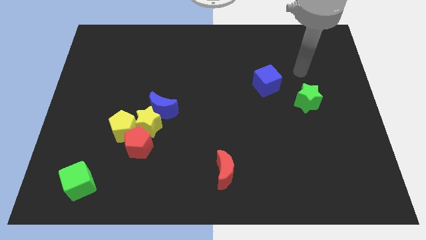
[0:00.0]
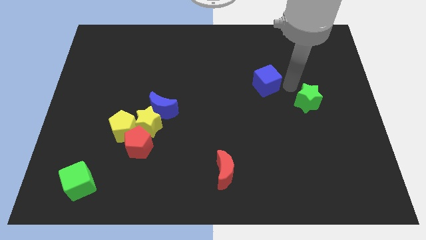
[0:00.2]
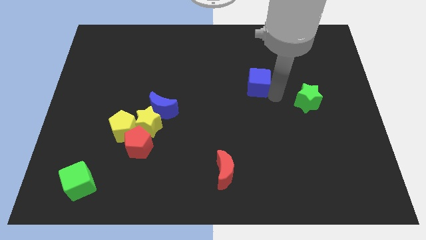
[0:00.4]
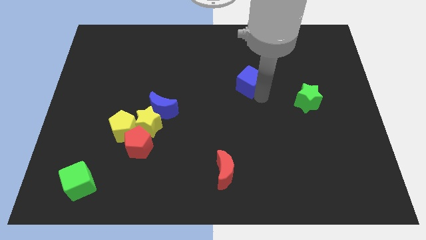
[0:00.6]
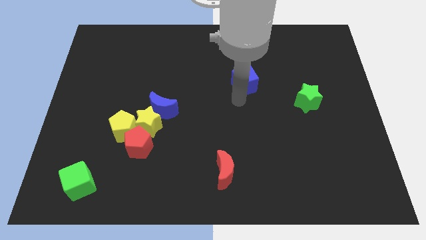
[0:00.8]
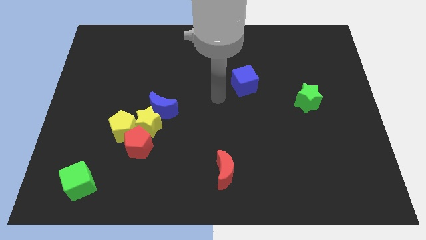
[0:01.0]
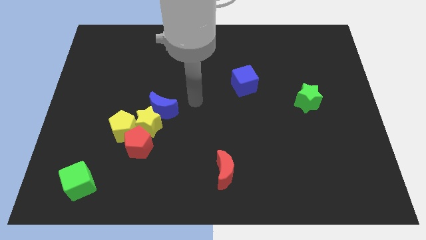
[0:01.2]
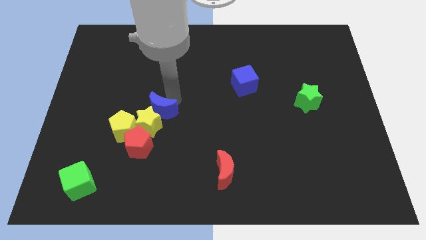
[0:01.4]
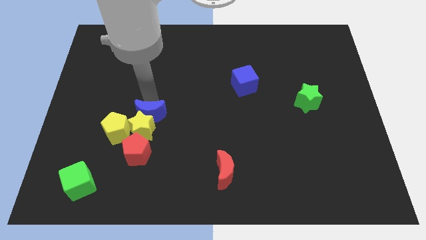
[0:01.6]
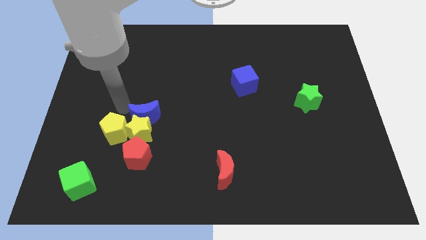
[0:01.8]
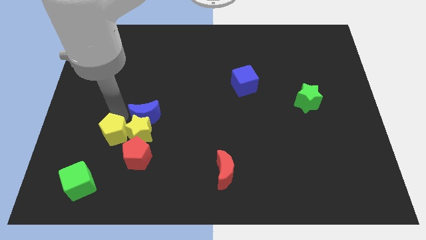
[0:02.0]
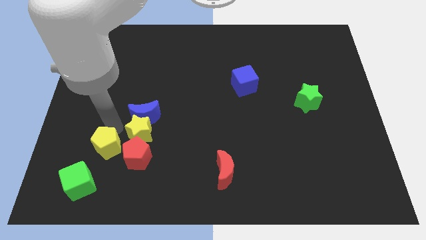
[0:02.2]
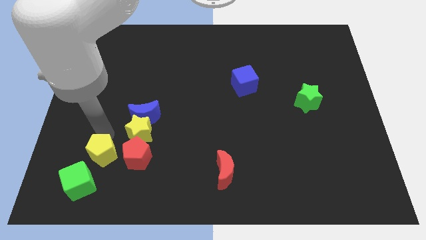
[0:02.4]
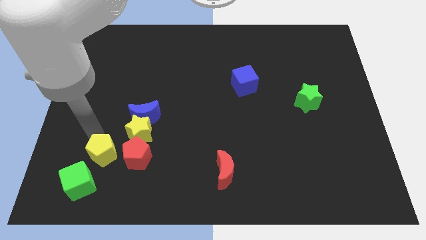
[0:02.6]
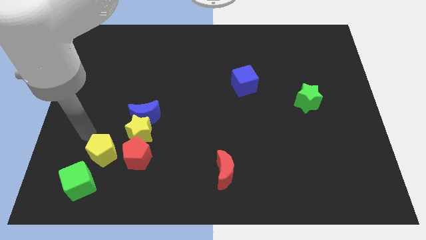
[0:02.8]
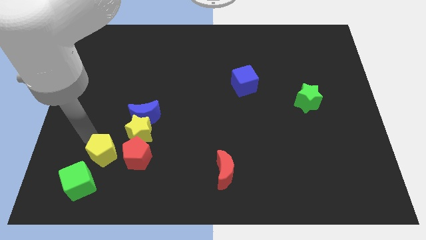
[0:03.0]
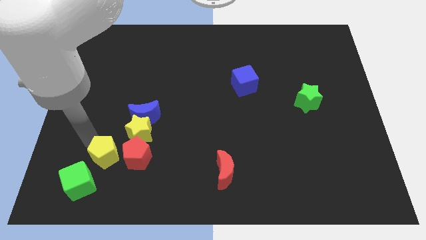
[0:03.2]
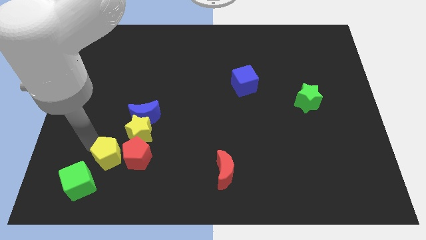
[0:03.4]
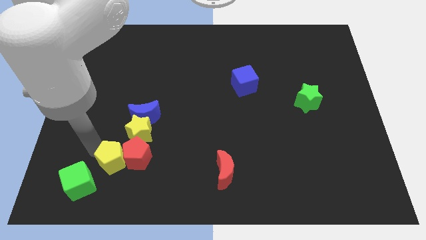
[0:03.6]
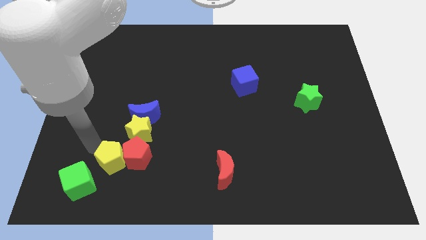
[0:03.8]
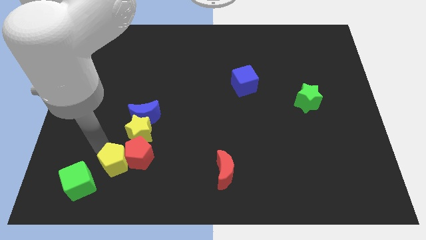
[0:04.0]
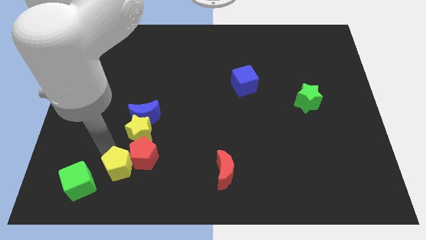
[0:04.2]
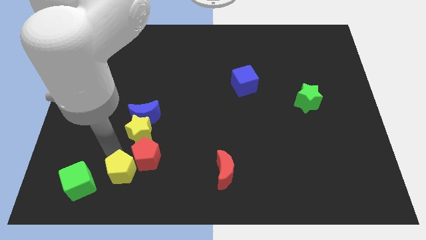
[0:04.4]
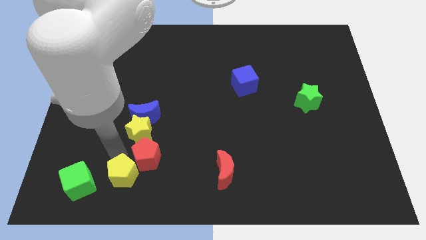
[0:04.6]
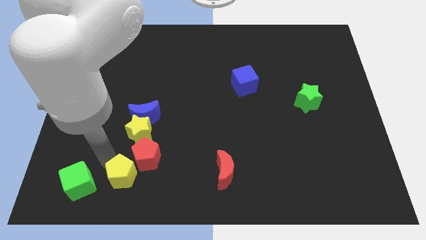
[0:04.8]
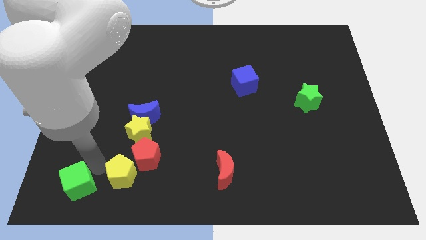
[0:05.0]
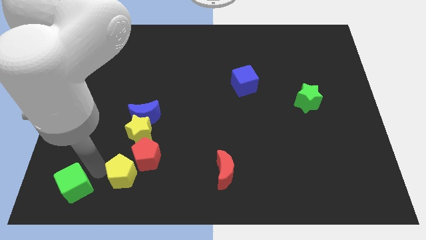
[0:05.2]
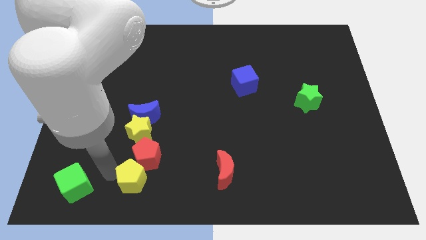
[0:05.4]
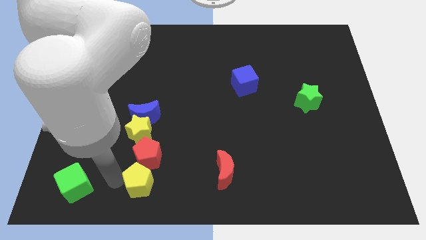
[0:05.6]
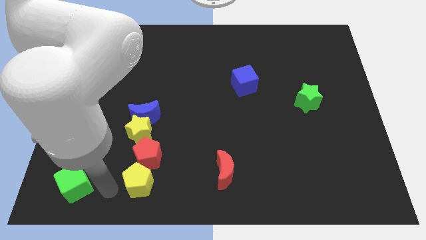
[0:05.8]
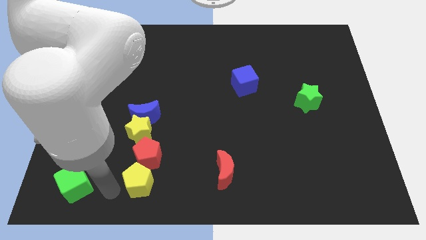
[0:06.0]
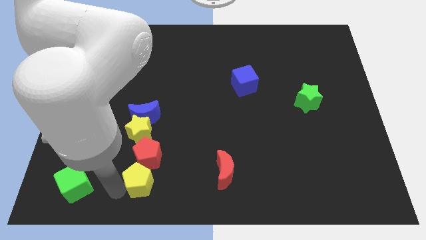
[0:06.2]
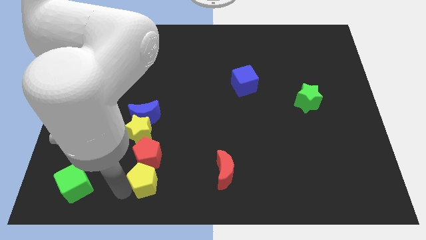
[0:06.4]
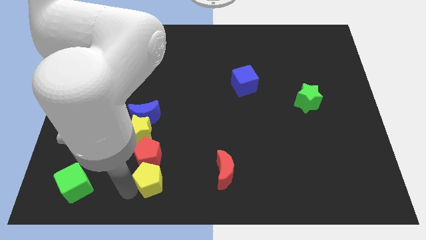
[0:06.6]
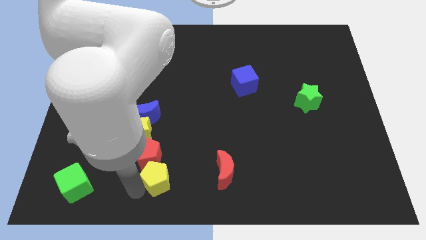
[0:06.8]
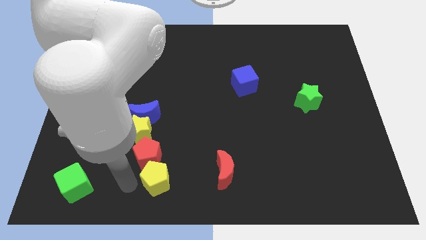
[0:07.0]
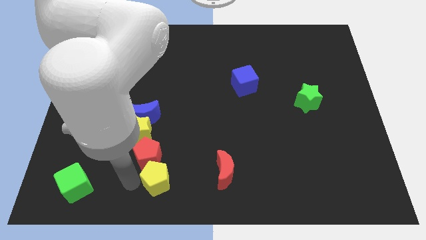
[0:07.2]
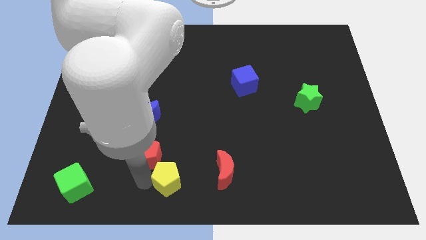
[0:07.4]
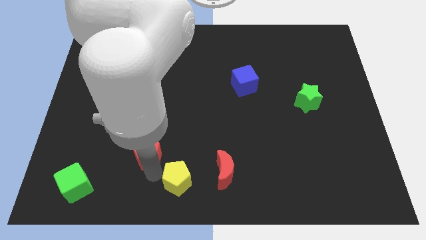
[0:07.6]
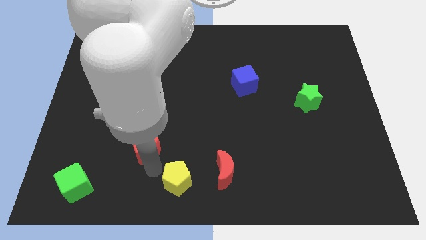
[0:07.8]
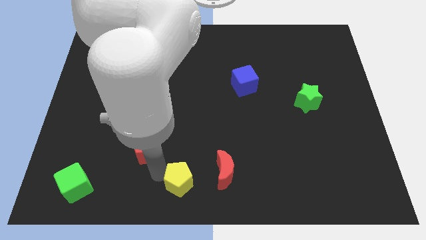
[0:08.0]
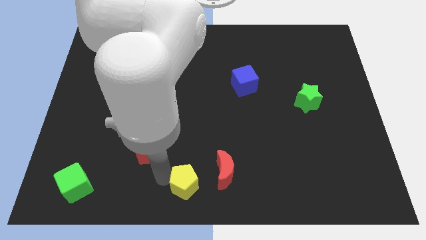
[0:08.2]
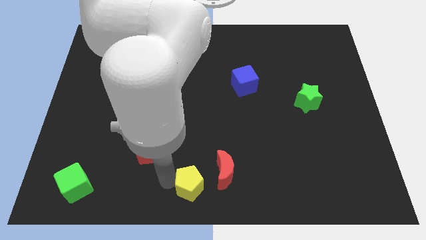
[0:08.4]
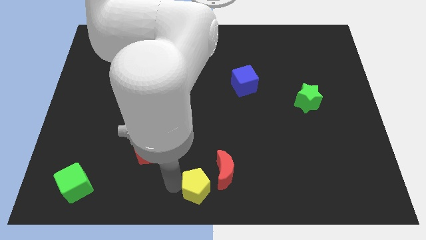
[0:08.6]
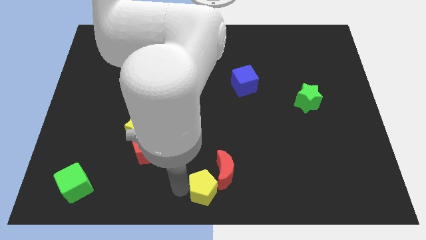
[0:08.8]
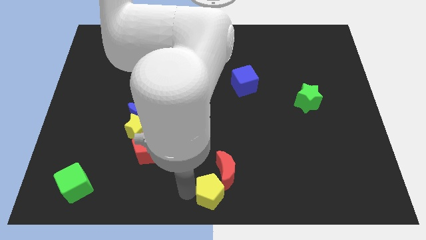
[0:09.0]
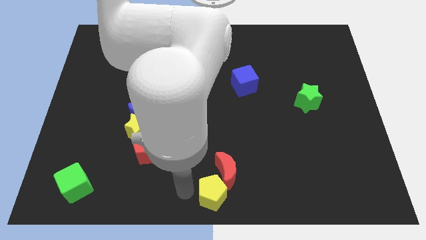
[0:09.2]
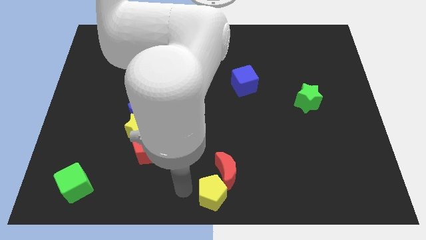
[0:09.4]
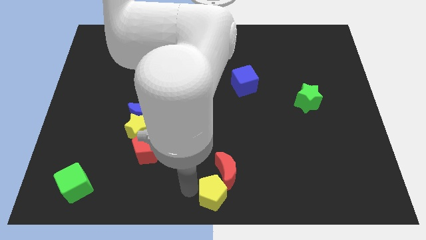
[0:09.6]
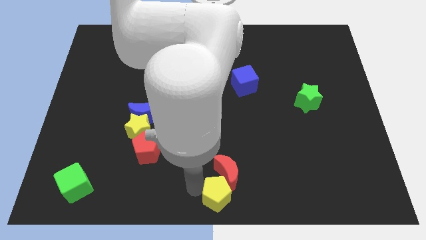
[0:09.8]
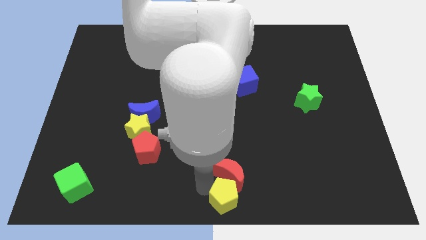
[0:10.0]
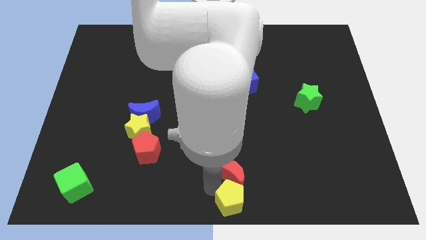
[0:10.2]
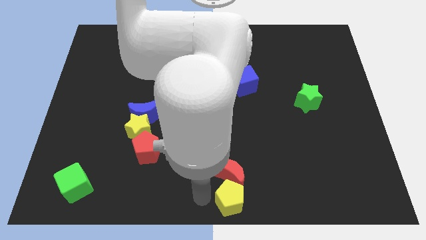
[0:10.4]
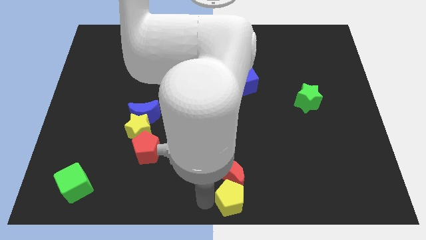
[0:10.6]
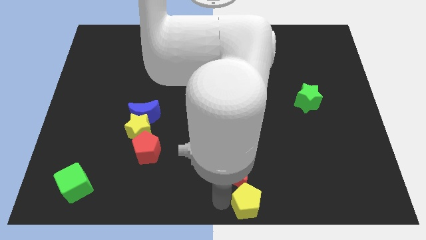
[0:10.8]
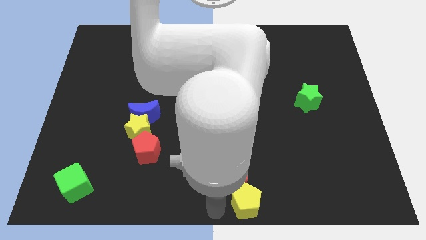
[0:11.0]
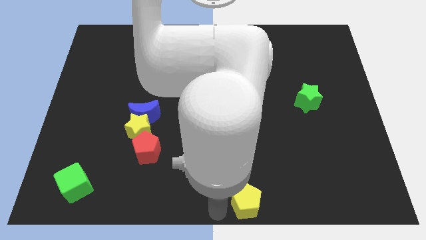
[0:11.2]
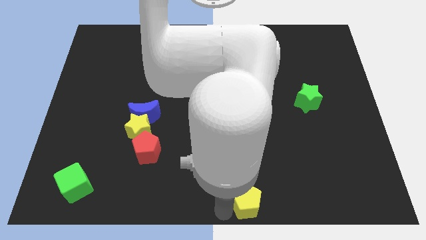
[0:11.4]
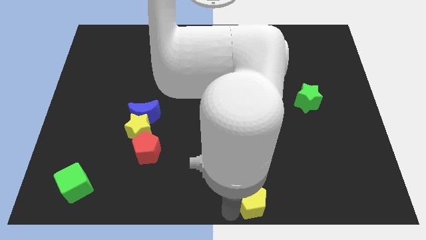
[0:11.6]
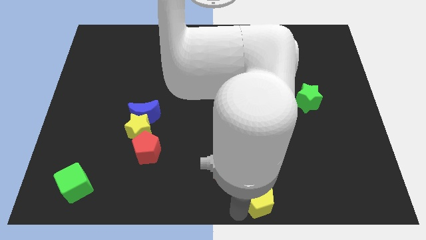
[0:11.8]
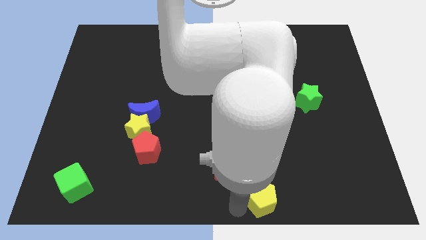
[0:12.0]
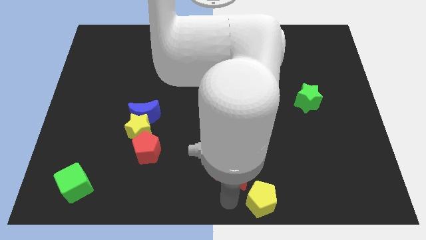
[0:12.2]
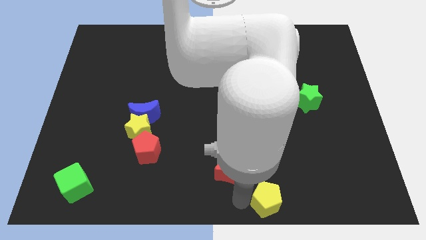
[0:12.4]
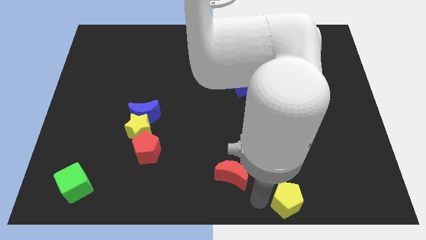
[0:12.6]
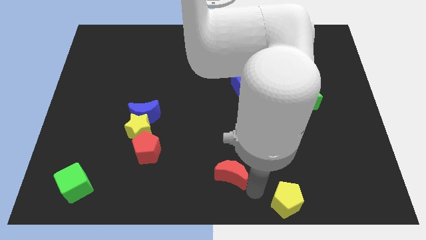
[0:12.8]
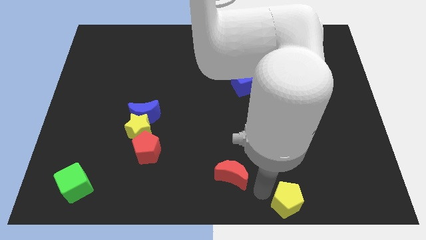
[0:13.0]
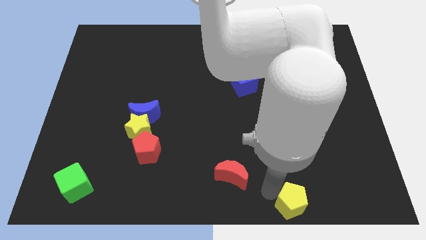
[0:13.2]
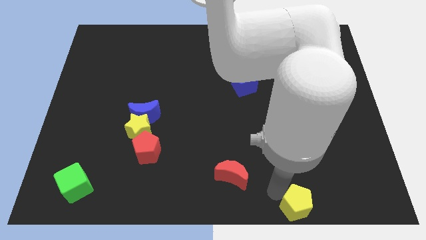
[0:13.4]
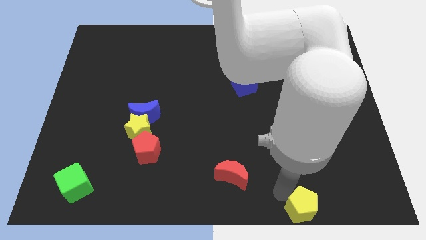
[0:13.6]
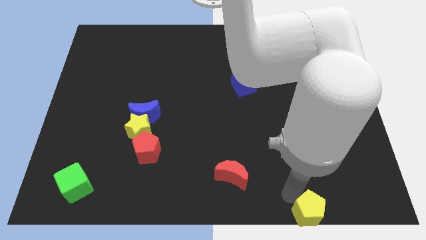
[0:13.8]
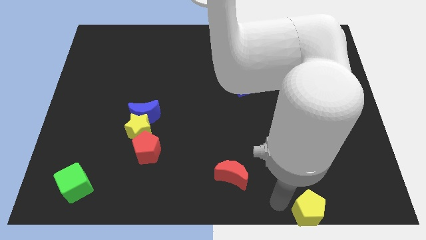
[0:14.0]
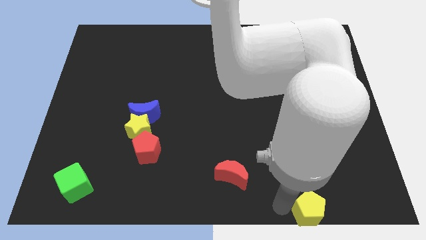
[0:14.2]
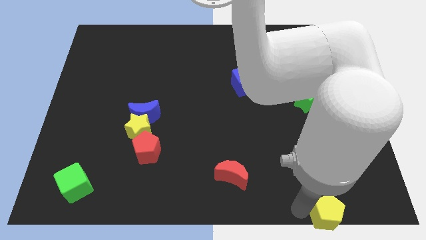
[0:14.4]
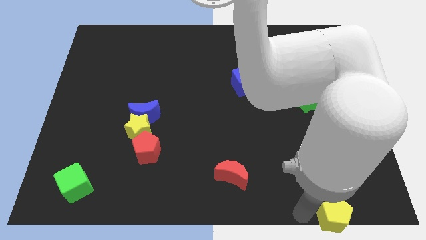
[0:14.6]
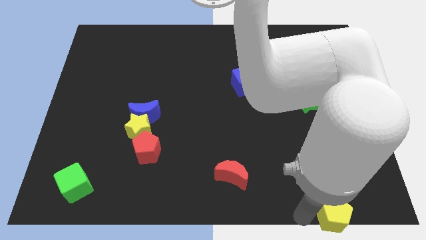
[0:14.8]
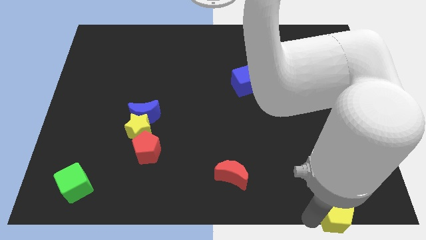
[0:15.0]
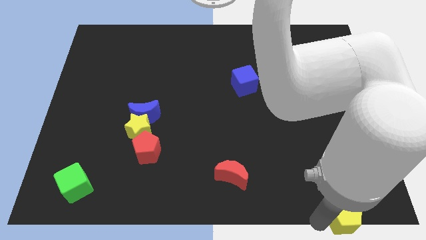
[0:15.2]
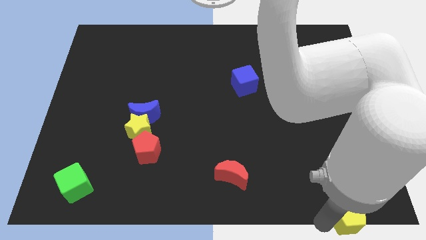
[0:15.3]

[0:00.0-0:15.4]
move the yellow pentagon to the bottom right of the board
